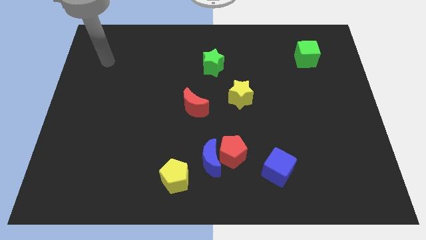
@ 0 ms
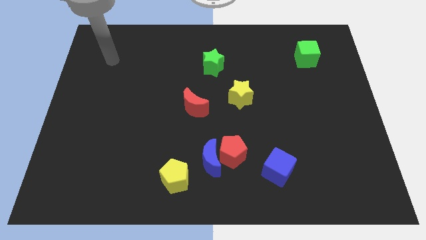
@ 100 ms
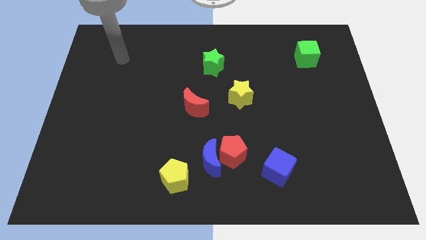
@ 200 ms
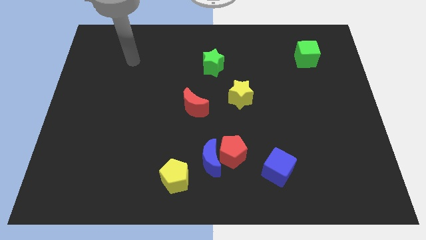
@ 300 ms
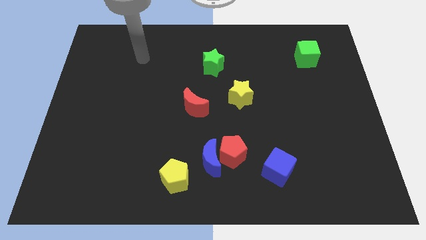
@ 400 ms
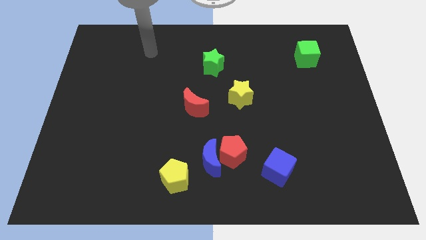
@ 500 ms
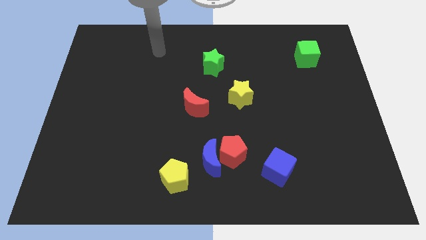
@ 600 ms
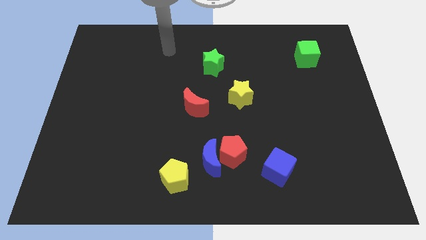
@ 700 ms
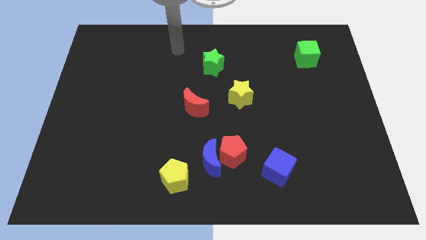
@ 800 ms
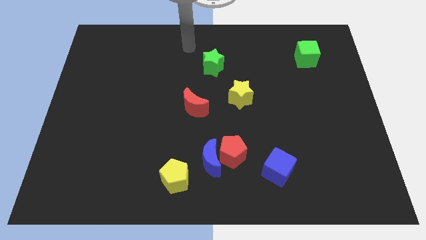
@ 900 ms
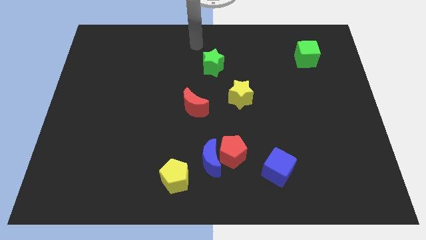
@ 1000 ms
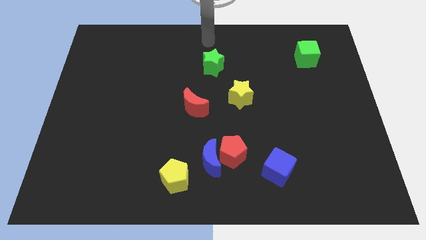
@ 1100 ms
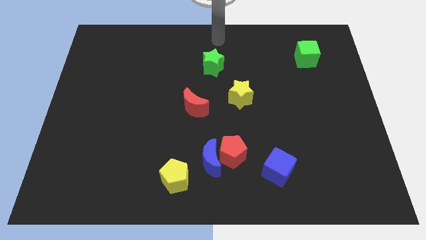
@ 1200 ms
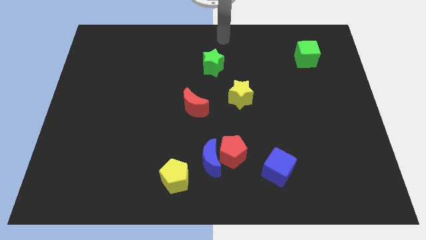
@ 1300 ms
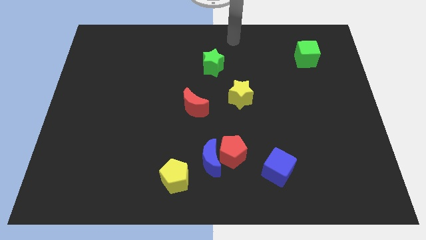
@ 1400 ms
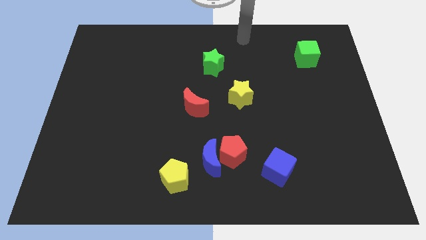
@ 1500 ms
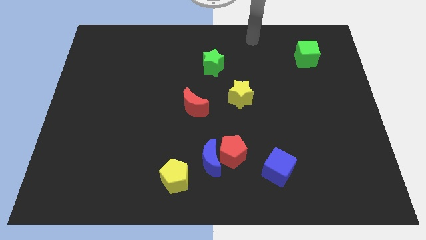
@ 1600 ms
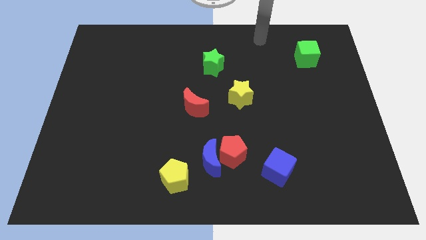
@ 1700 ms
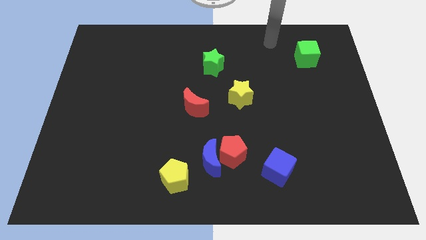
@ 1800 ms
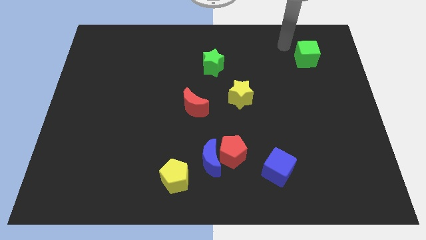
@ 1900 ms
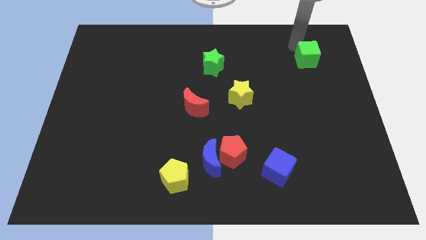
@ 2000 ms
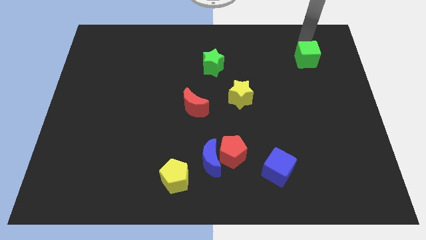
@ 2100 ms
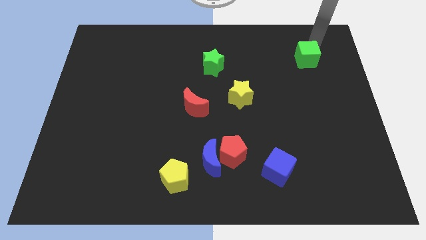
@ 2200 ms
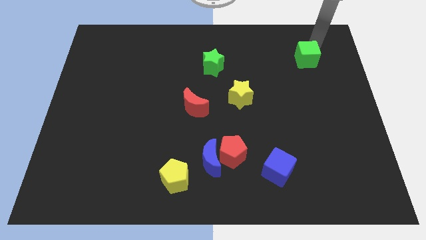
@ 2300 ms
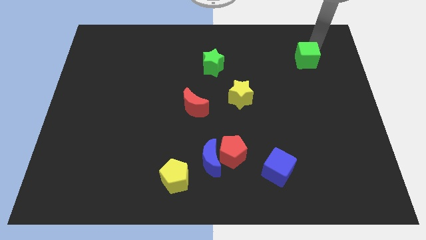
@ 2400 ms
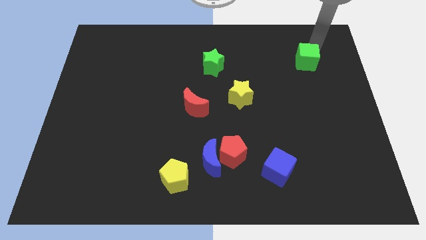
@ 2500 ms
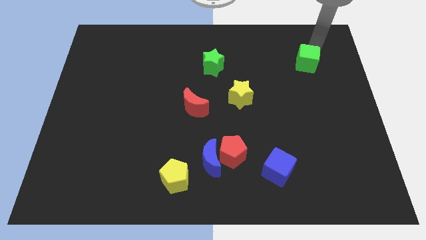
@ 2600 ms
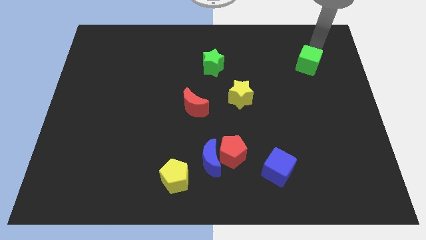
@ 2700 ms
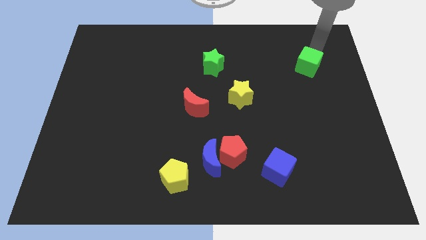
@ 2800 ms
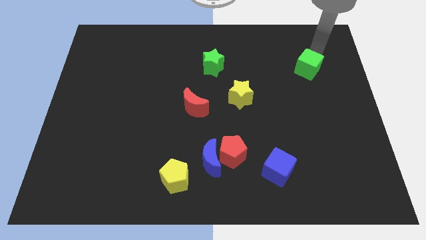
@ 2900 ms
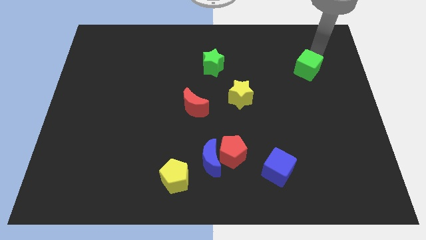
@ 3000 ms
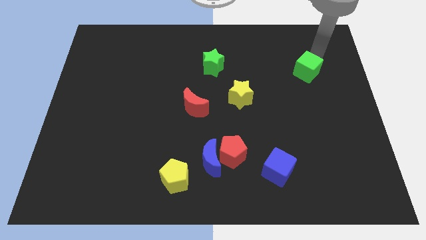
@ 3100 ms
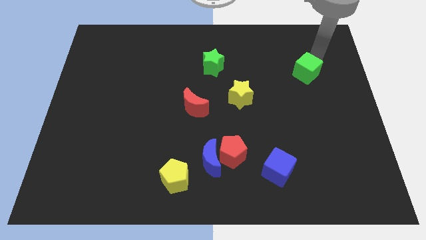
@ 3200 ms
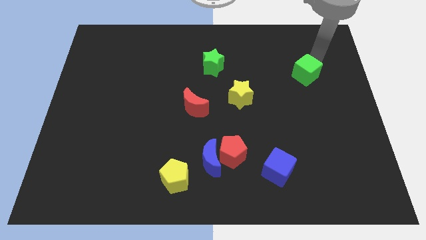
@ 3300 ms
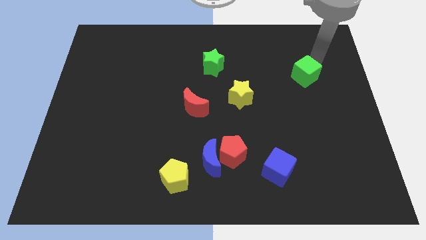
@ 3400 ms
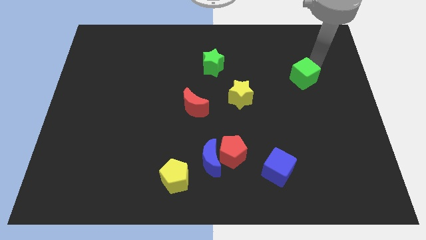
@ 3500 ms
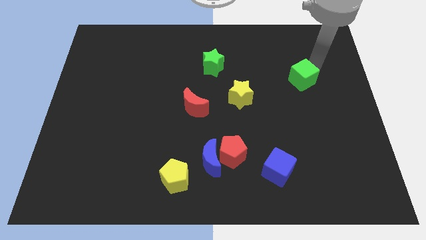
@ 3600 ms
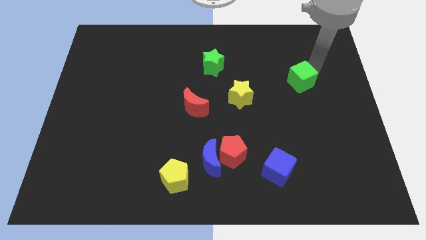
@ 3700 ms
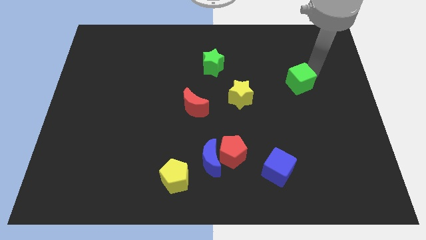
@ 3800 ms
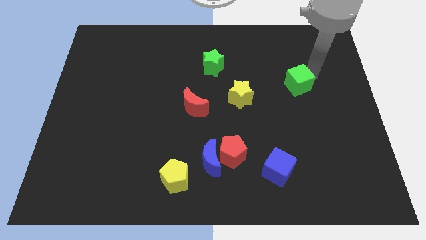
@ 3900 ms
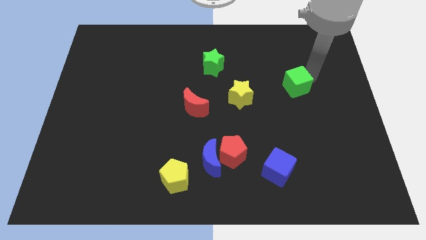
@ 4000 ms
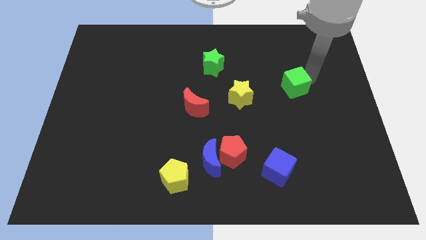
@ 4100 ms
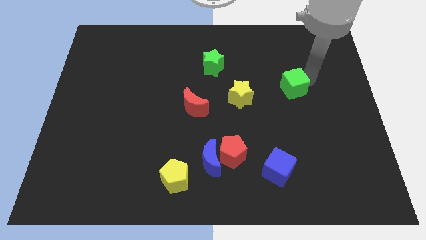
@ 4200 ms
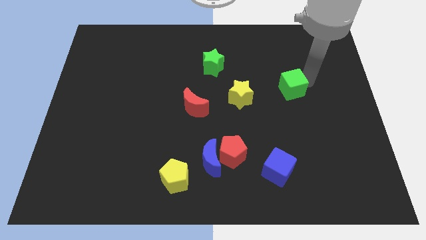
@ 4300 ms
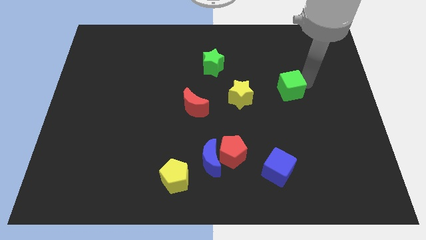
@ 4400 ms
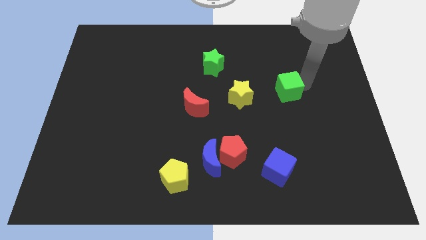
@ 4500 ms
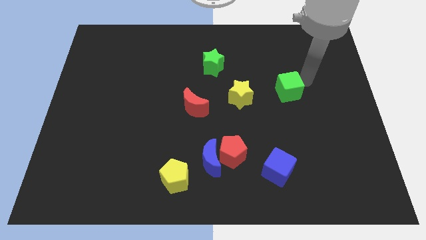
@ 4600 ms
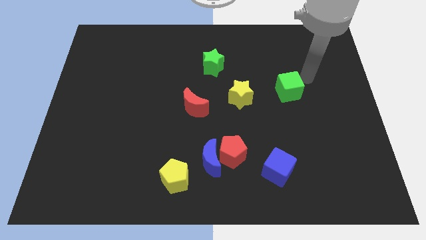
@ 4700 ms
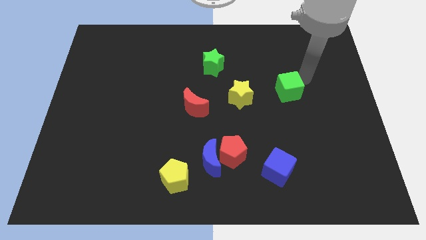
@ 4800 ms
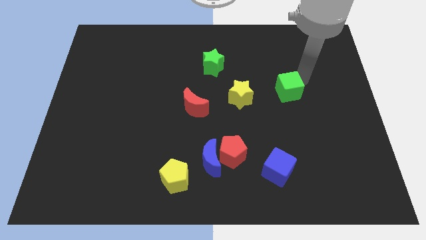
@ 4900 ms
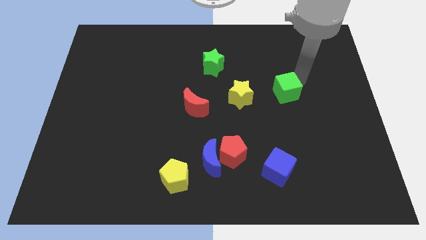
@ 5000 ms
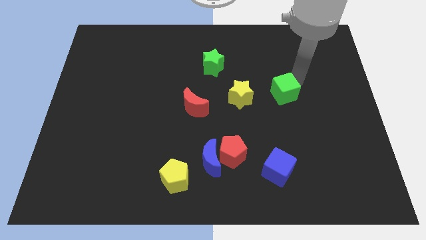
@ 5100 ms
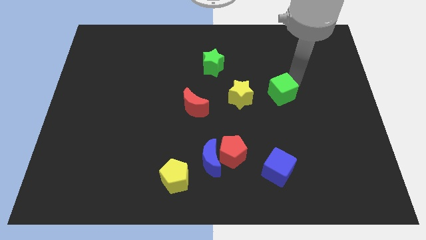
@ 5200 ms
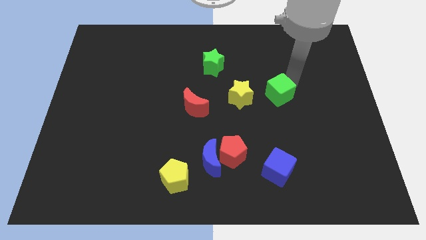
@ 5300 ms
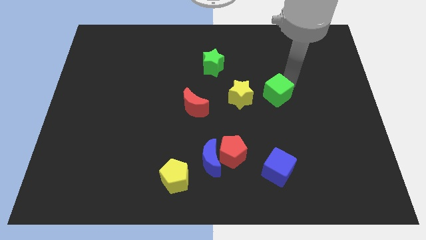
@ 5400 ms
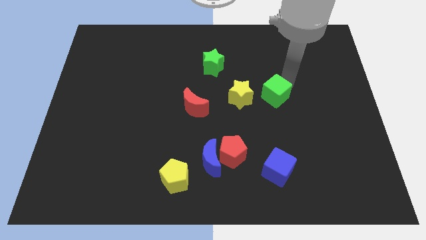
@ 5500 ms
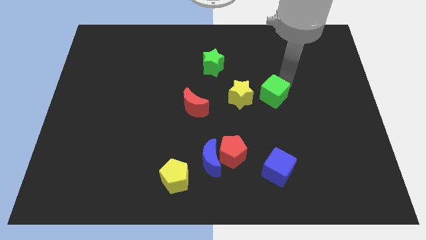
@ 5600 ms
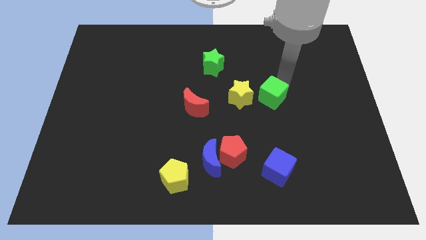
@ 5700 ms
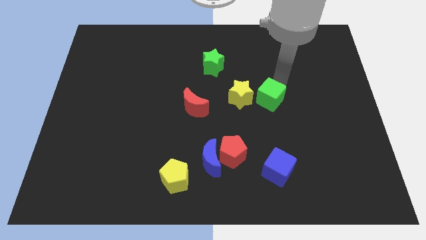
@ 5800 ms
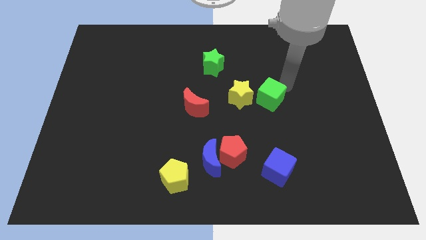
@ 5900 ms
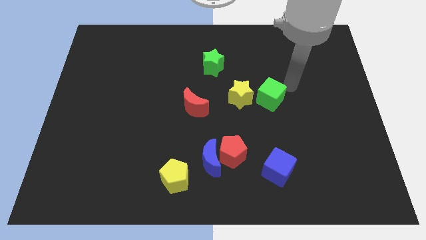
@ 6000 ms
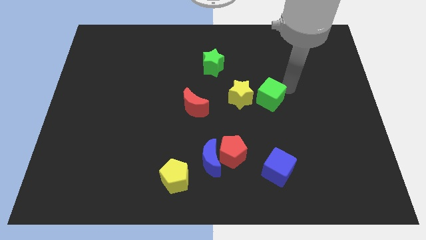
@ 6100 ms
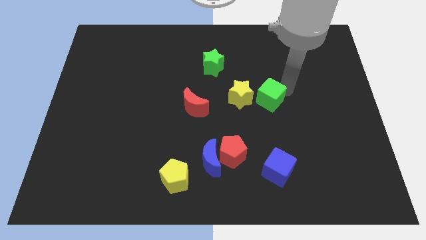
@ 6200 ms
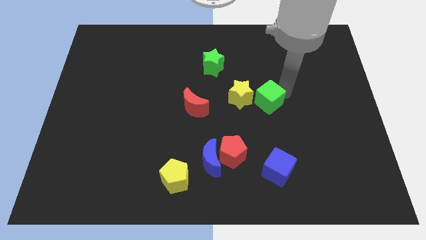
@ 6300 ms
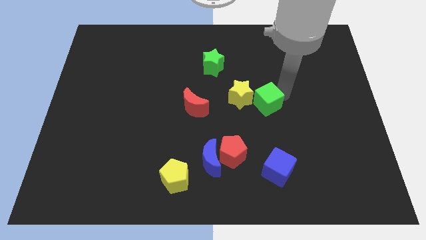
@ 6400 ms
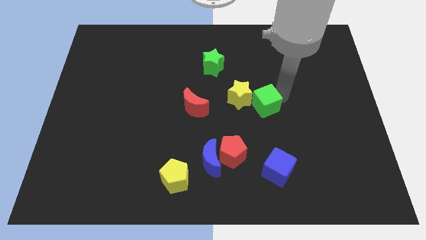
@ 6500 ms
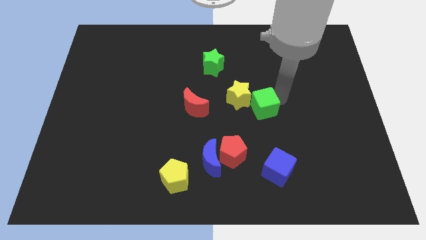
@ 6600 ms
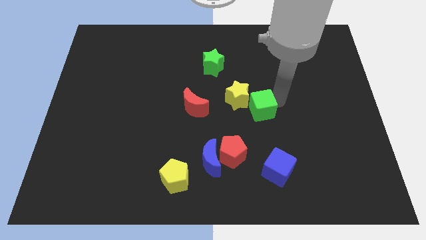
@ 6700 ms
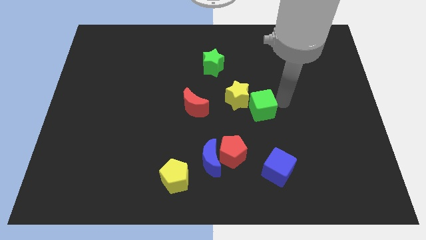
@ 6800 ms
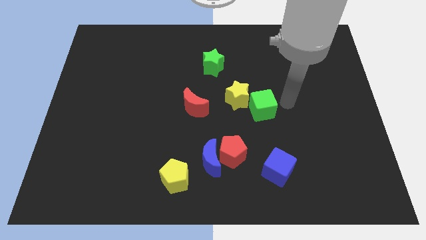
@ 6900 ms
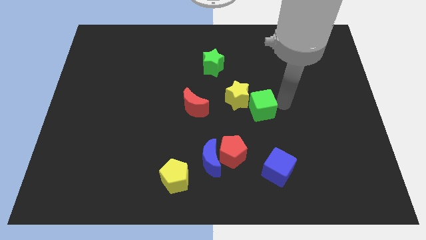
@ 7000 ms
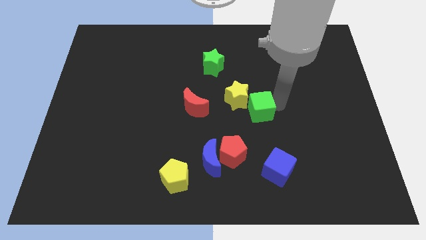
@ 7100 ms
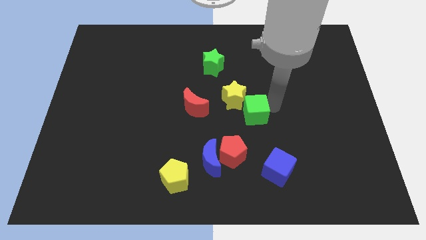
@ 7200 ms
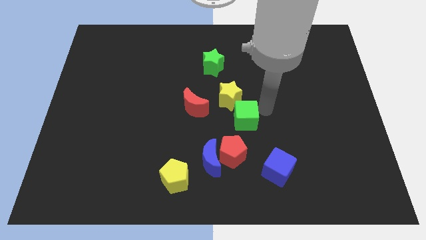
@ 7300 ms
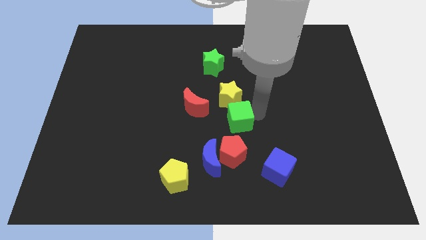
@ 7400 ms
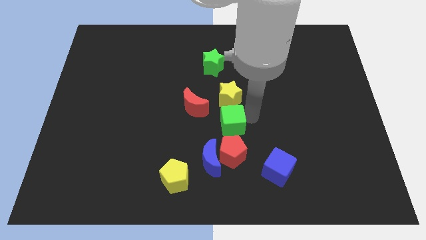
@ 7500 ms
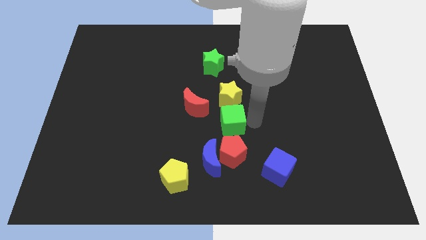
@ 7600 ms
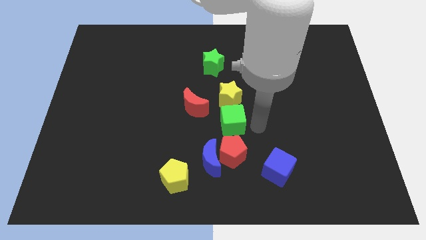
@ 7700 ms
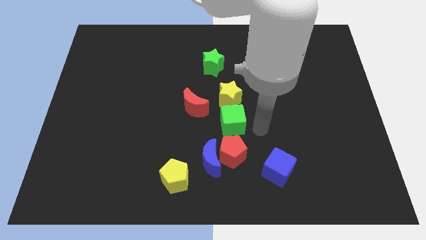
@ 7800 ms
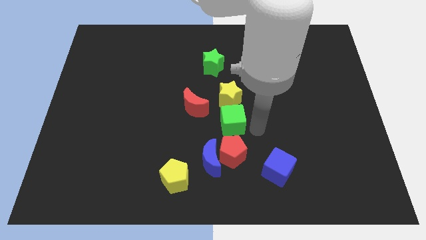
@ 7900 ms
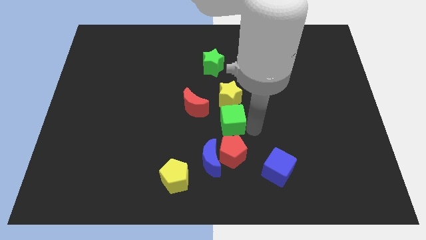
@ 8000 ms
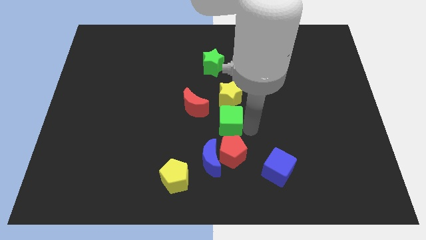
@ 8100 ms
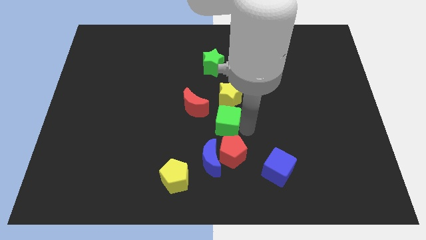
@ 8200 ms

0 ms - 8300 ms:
move the green cube to the bottom left side of the yellow star
